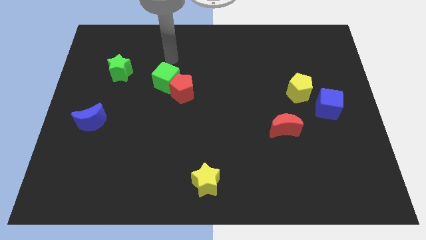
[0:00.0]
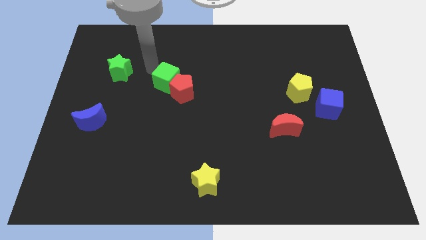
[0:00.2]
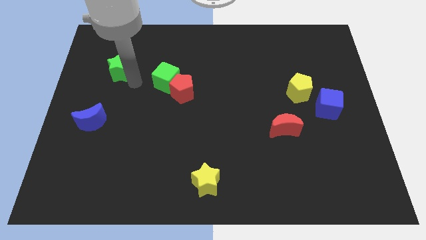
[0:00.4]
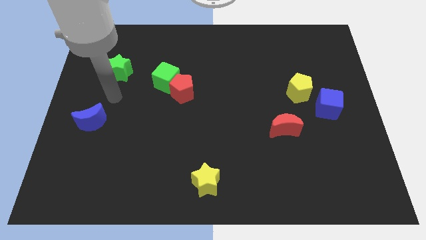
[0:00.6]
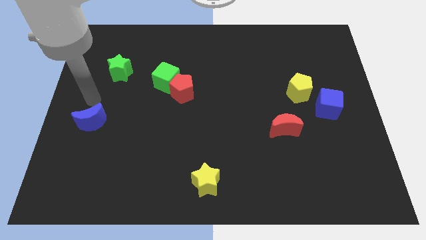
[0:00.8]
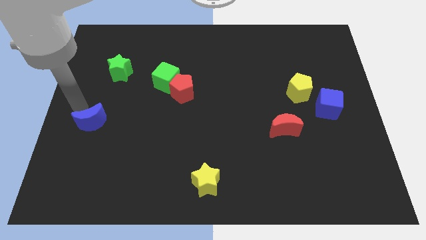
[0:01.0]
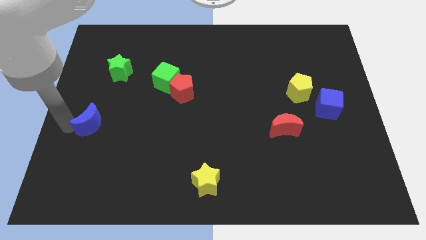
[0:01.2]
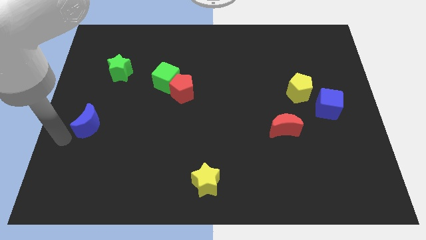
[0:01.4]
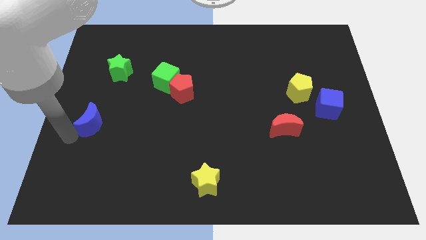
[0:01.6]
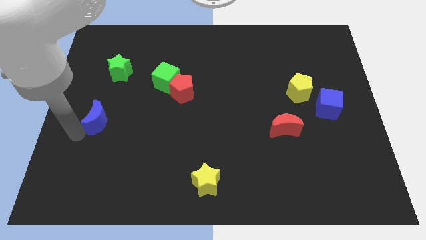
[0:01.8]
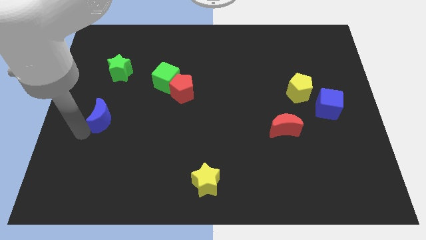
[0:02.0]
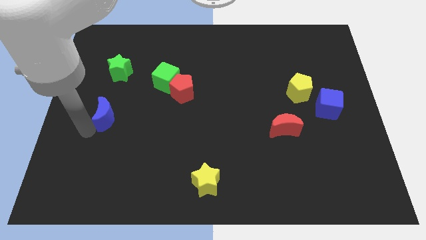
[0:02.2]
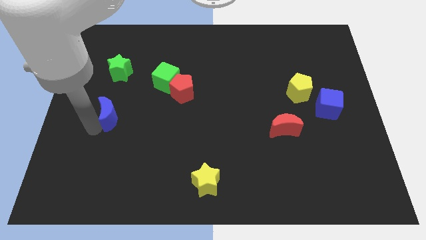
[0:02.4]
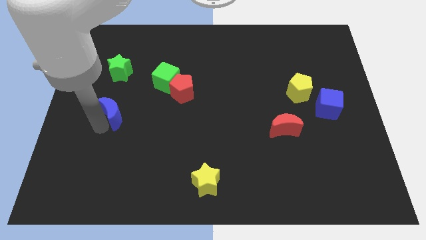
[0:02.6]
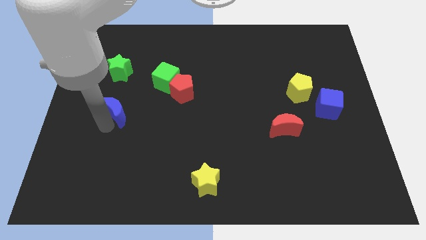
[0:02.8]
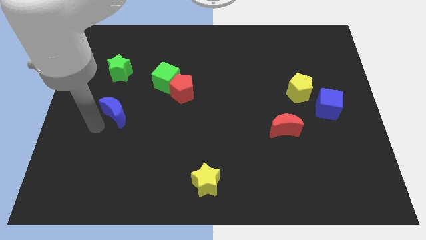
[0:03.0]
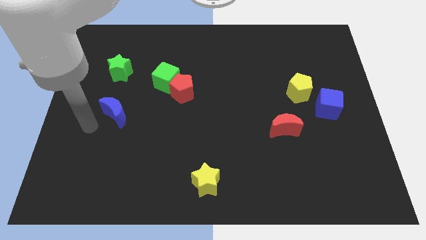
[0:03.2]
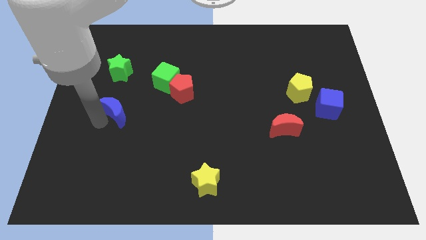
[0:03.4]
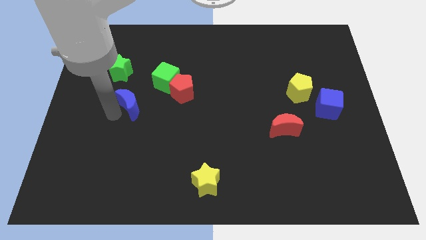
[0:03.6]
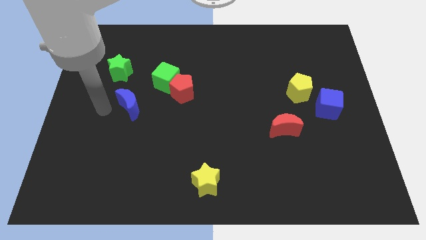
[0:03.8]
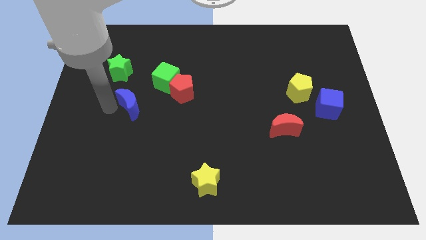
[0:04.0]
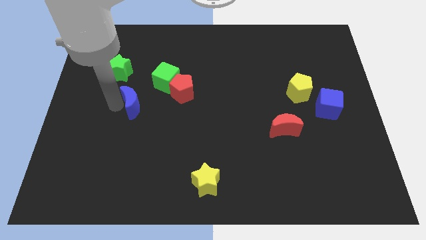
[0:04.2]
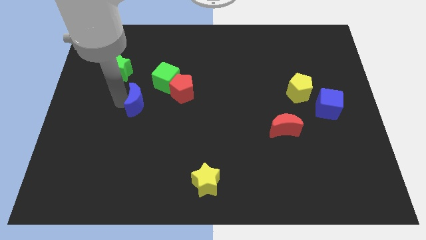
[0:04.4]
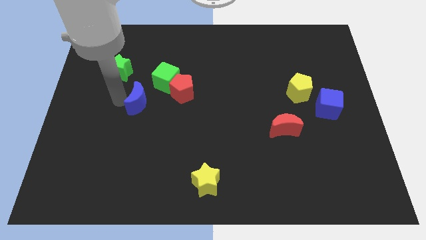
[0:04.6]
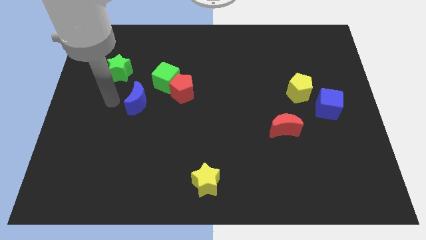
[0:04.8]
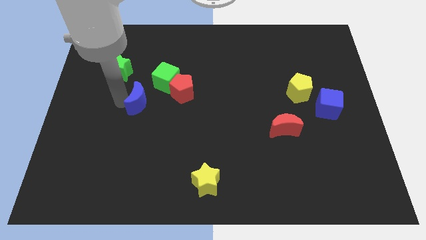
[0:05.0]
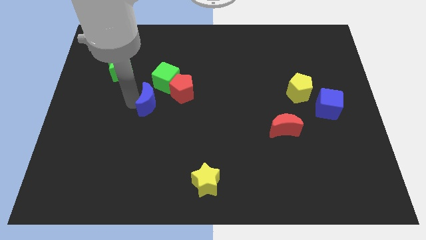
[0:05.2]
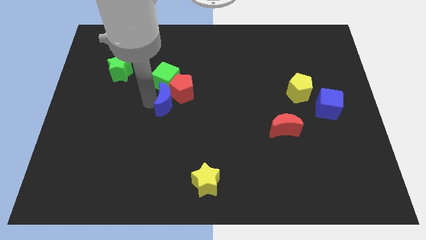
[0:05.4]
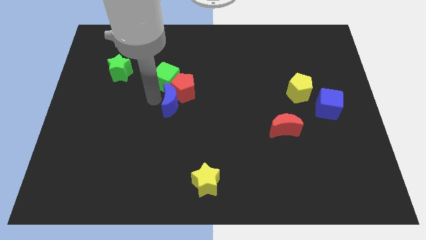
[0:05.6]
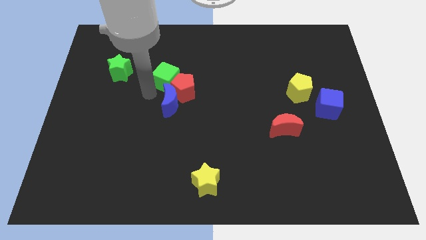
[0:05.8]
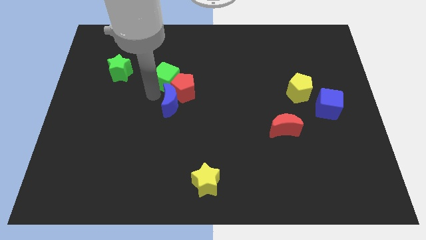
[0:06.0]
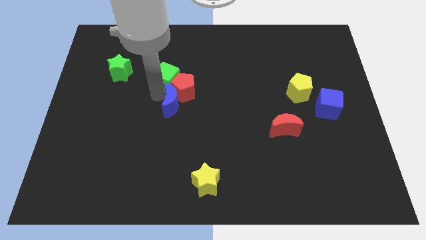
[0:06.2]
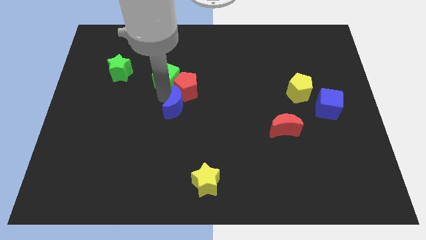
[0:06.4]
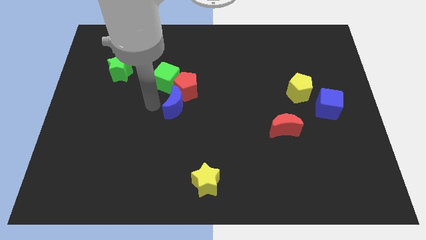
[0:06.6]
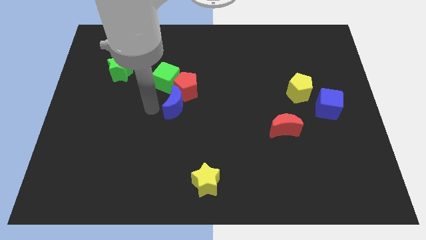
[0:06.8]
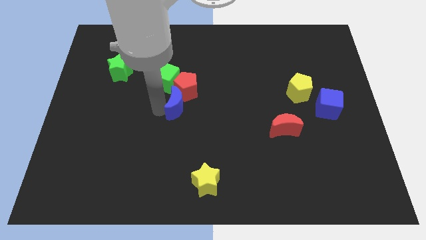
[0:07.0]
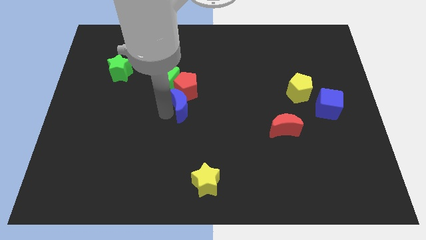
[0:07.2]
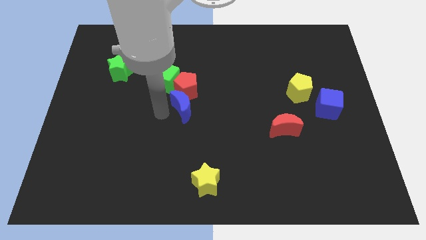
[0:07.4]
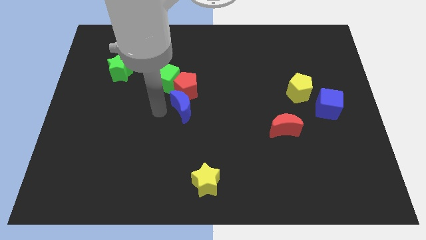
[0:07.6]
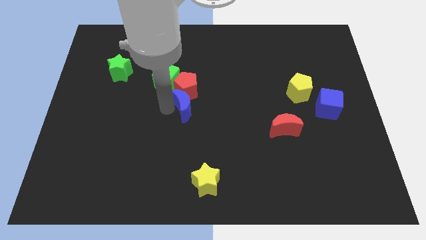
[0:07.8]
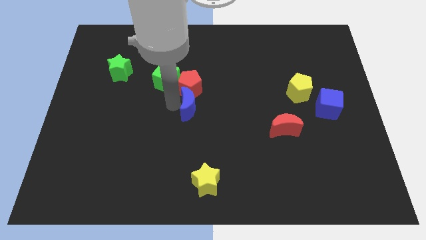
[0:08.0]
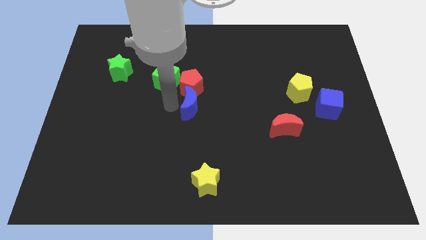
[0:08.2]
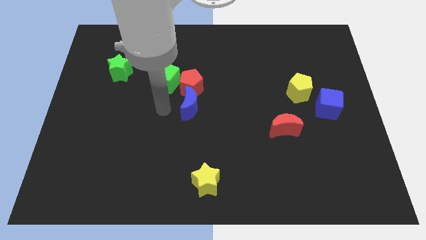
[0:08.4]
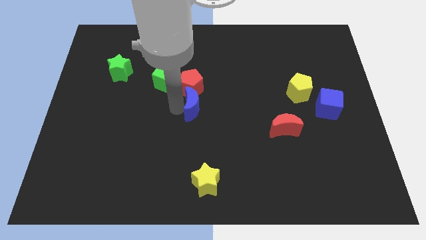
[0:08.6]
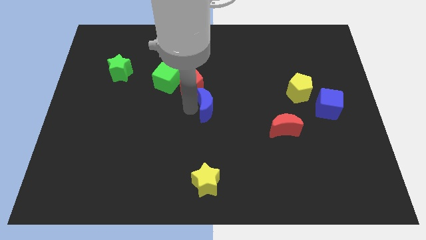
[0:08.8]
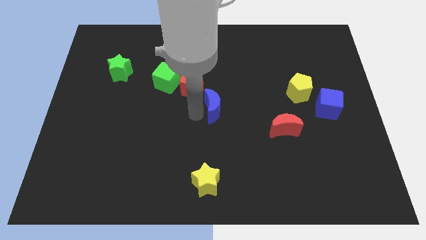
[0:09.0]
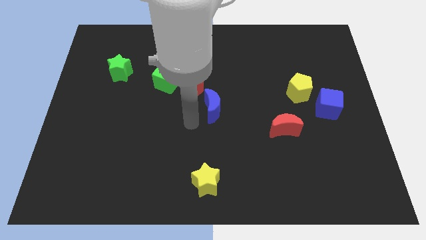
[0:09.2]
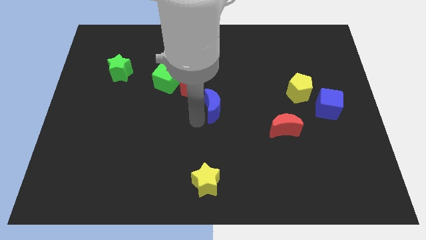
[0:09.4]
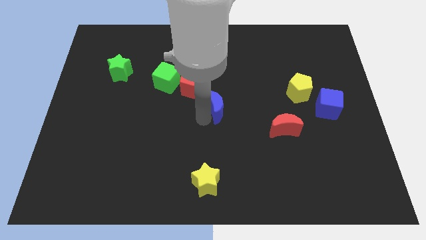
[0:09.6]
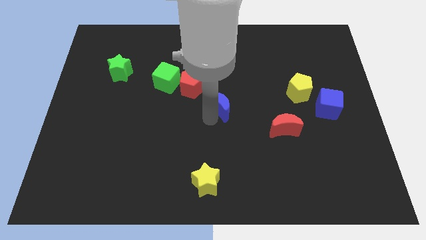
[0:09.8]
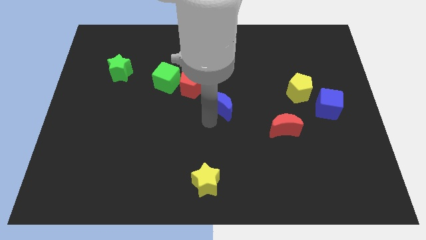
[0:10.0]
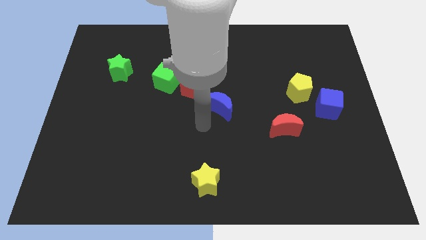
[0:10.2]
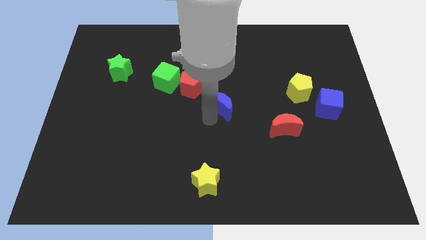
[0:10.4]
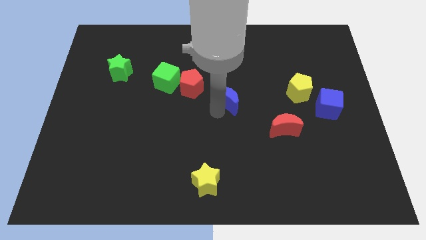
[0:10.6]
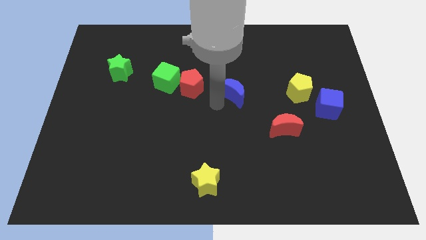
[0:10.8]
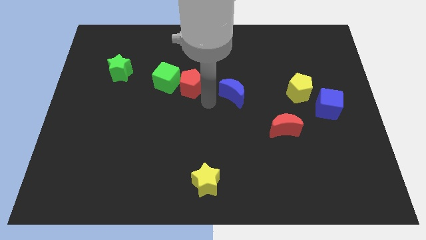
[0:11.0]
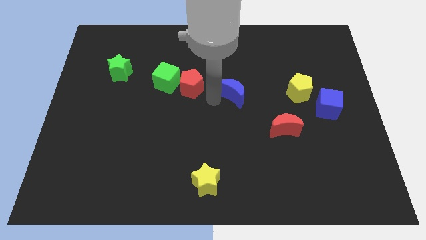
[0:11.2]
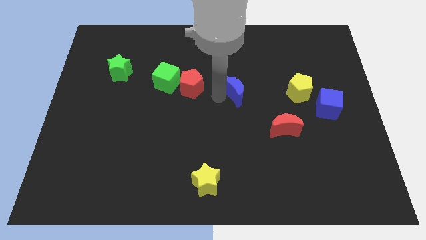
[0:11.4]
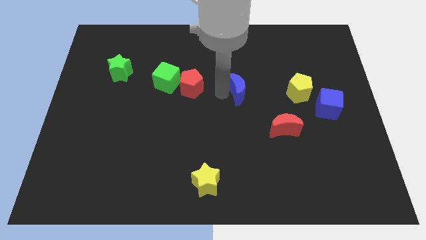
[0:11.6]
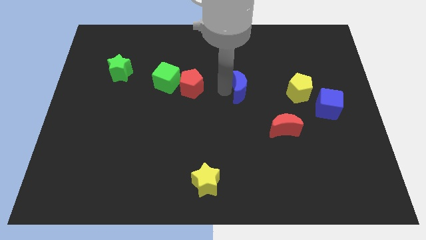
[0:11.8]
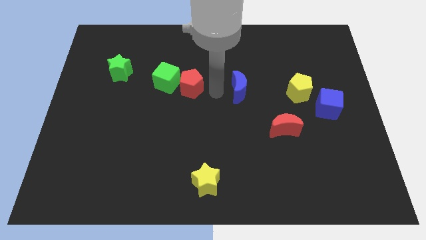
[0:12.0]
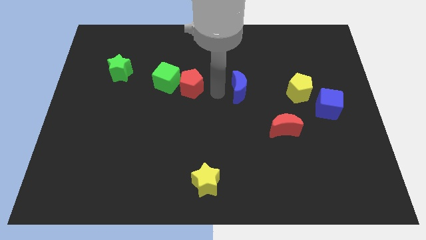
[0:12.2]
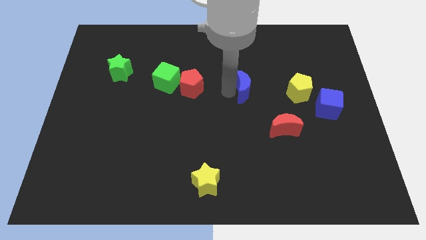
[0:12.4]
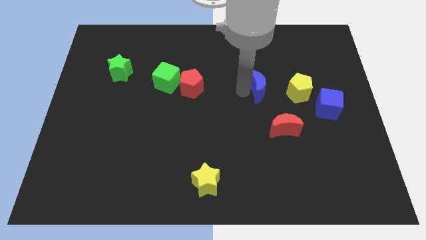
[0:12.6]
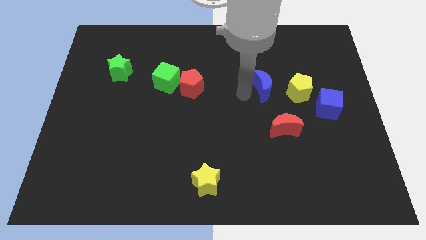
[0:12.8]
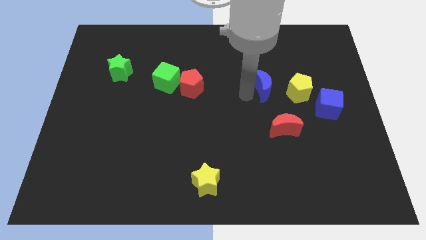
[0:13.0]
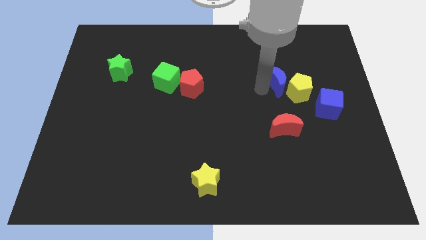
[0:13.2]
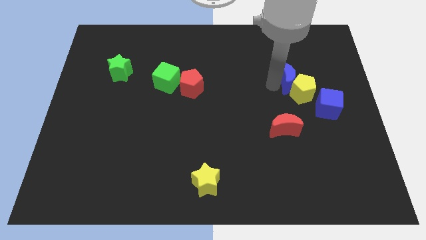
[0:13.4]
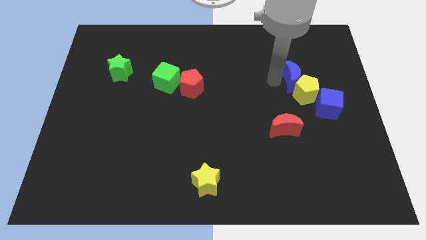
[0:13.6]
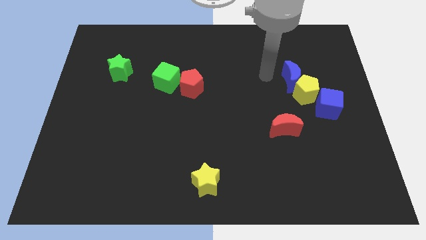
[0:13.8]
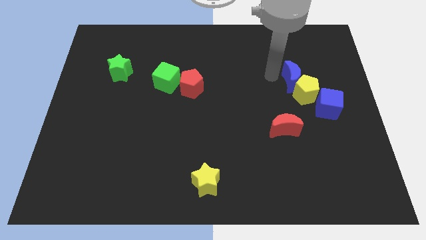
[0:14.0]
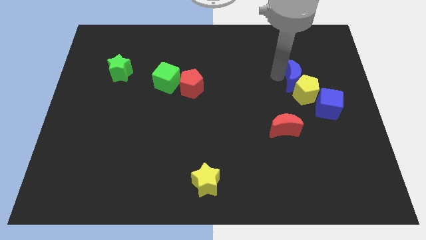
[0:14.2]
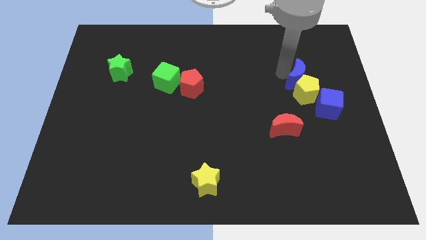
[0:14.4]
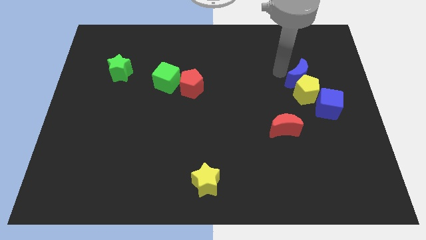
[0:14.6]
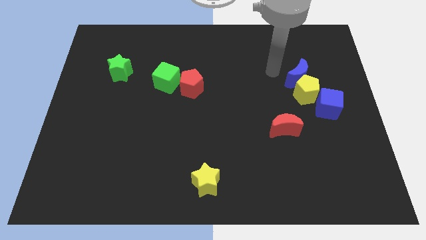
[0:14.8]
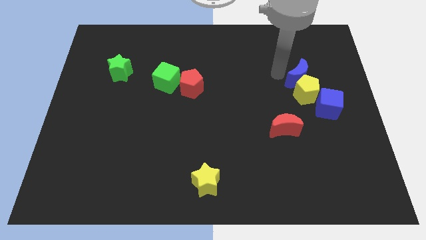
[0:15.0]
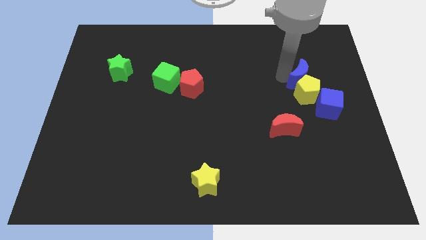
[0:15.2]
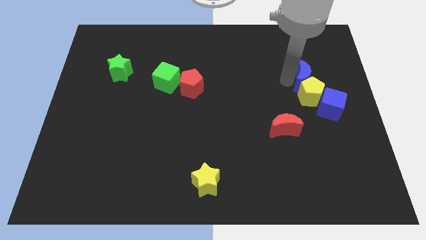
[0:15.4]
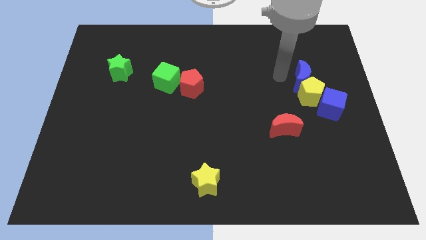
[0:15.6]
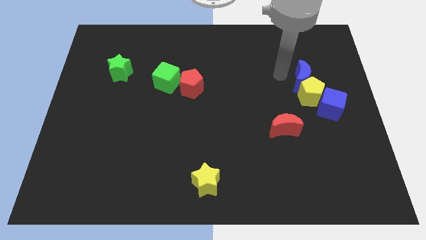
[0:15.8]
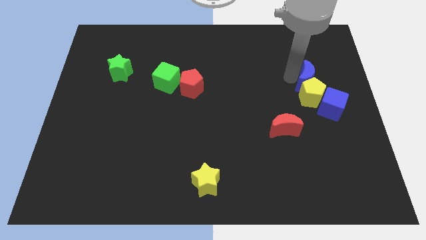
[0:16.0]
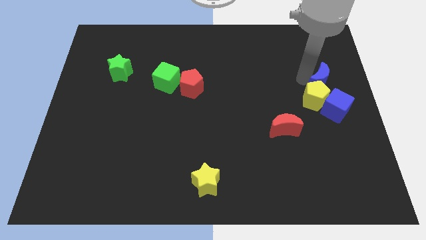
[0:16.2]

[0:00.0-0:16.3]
move the blue moon to the right side of the board
